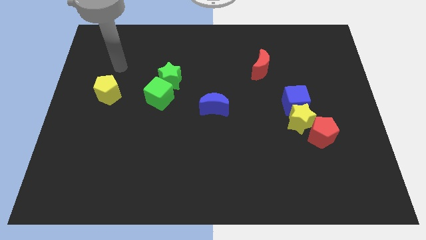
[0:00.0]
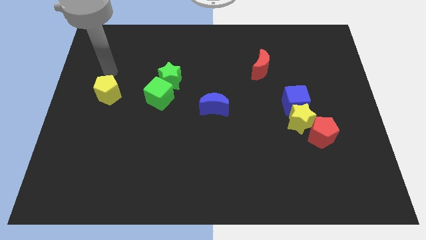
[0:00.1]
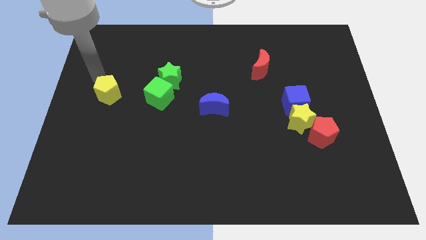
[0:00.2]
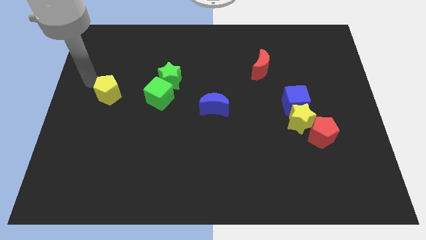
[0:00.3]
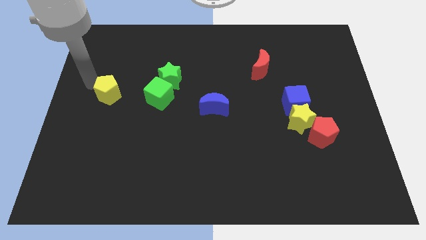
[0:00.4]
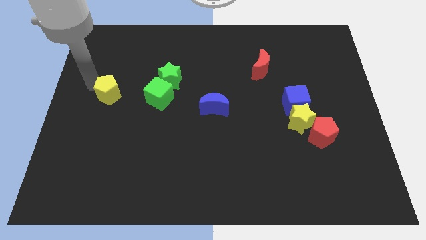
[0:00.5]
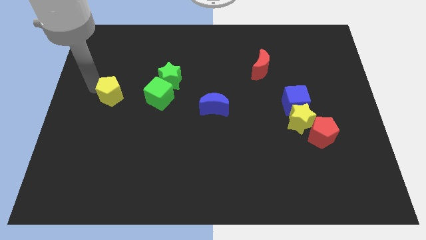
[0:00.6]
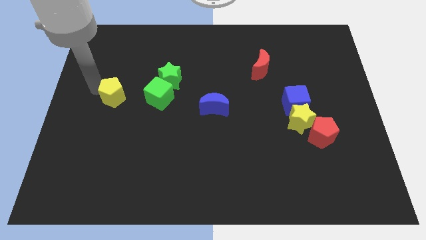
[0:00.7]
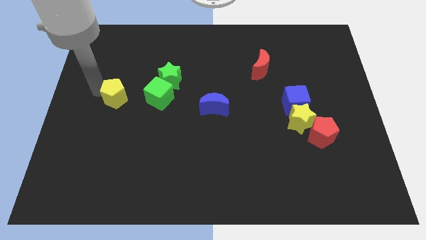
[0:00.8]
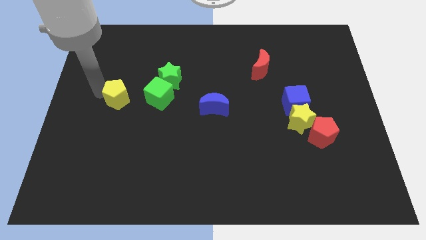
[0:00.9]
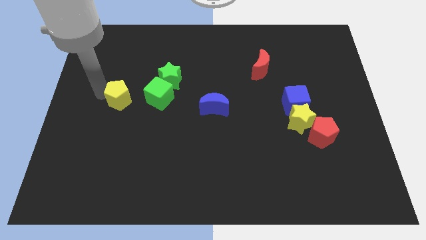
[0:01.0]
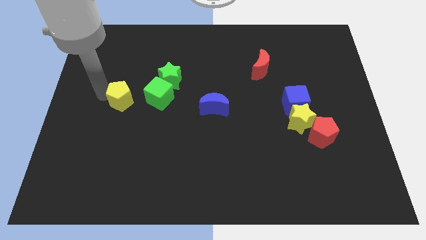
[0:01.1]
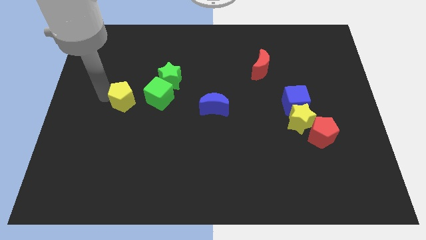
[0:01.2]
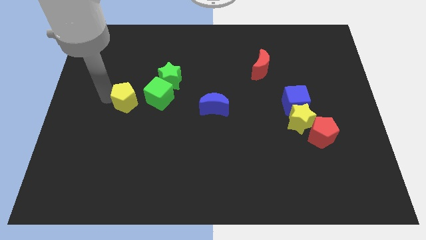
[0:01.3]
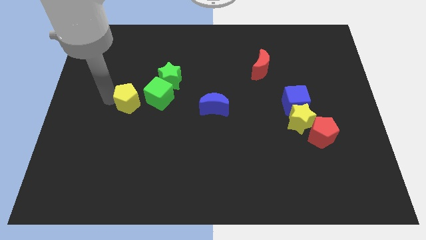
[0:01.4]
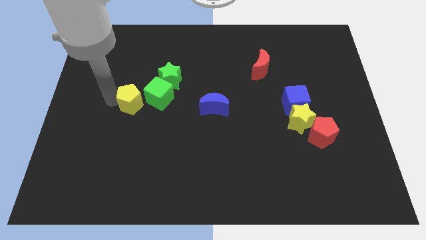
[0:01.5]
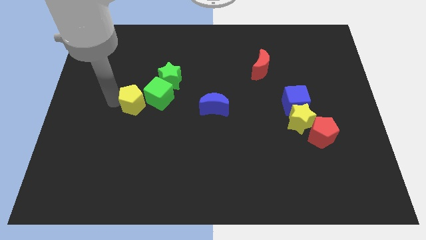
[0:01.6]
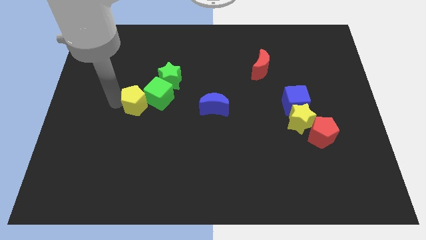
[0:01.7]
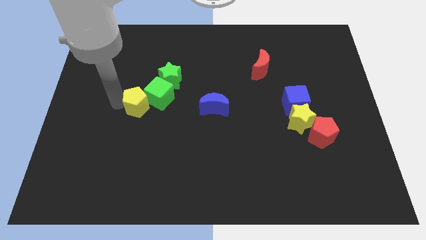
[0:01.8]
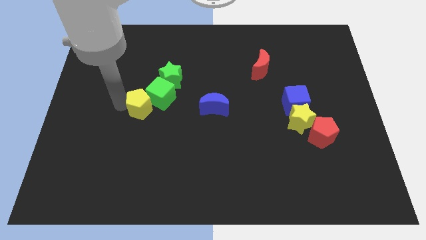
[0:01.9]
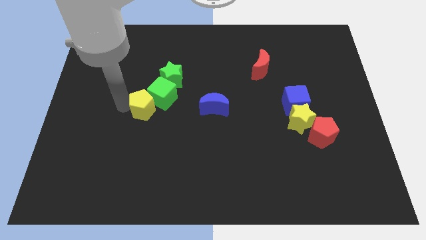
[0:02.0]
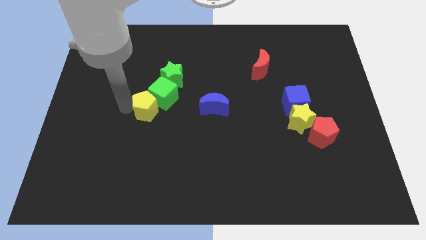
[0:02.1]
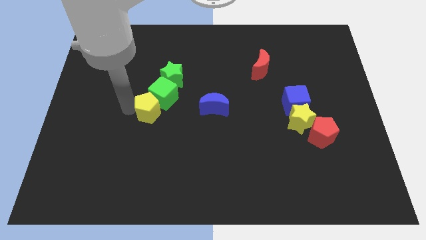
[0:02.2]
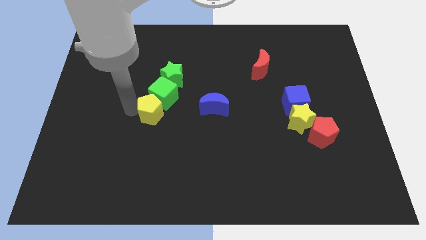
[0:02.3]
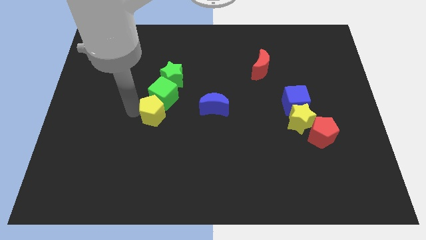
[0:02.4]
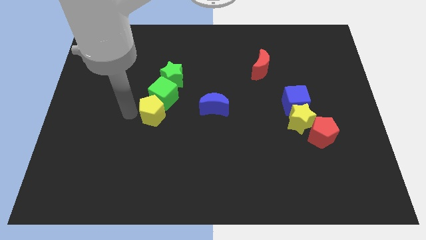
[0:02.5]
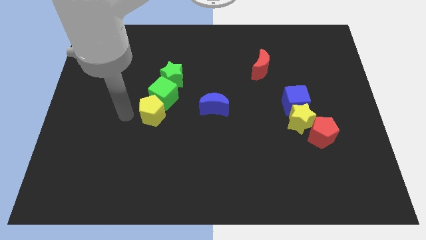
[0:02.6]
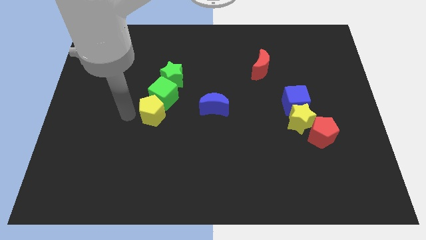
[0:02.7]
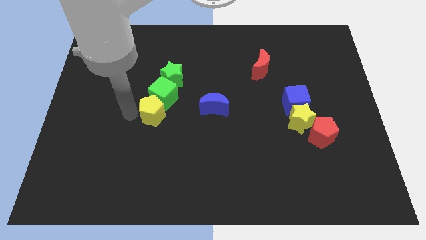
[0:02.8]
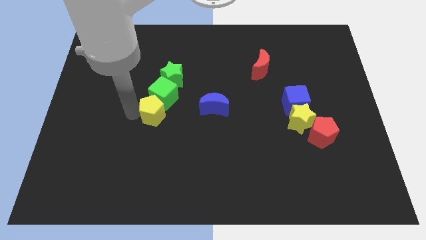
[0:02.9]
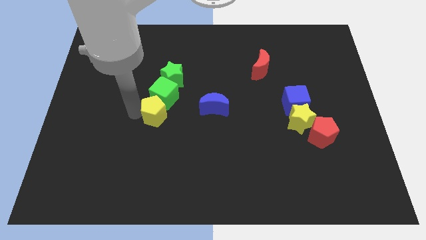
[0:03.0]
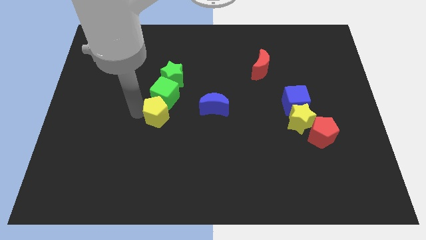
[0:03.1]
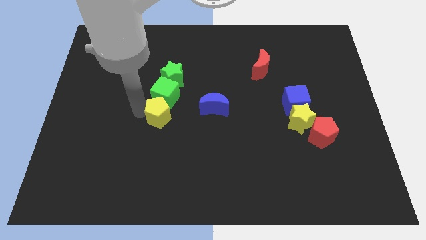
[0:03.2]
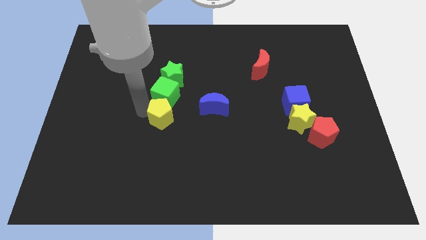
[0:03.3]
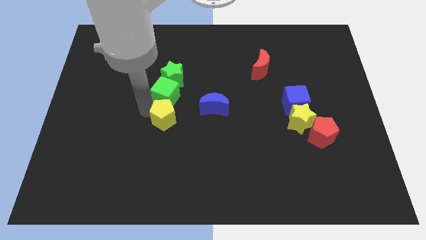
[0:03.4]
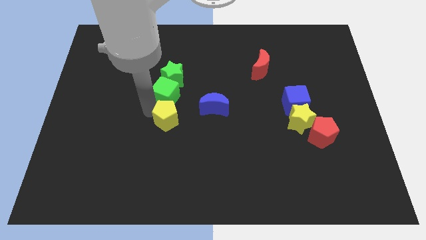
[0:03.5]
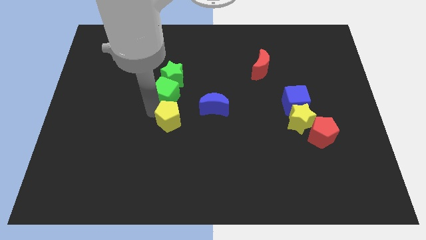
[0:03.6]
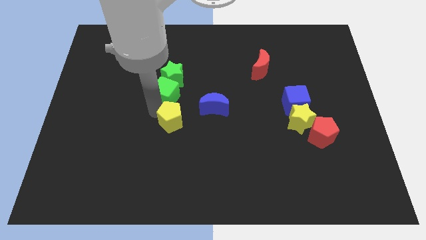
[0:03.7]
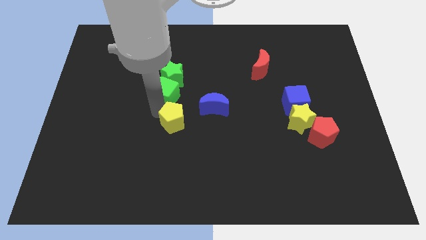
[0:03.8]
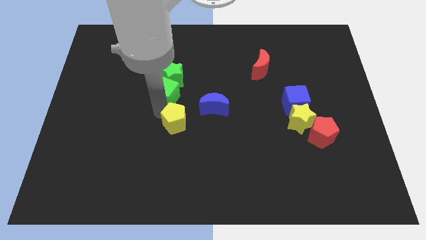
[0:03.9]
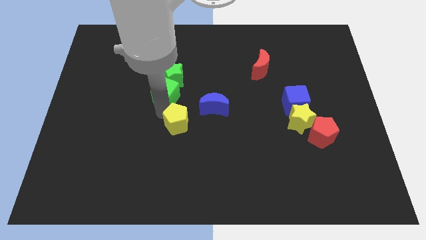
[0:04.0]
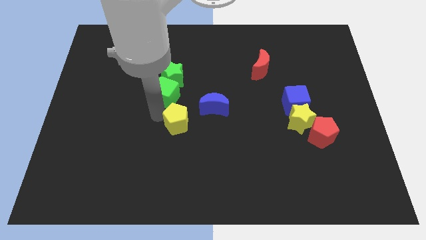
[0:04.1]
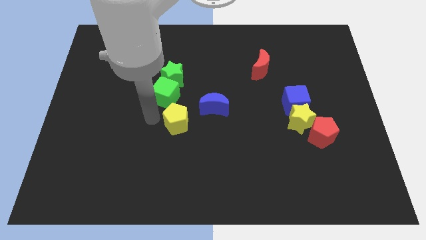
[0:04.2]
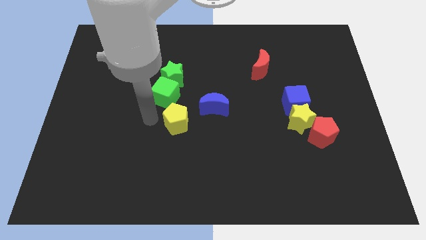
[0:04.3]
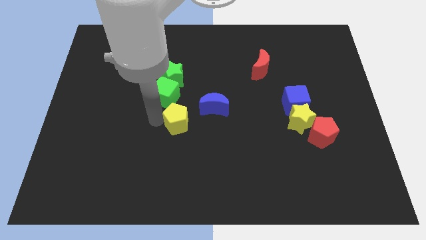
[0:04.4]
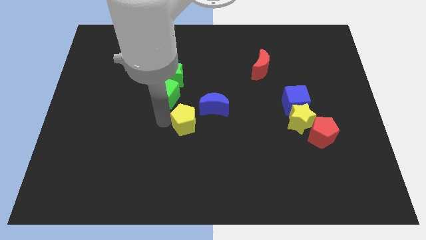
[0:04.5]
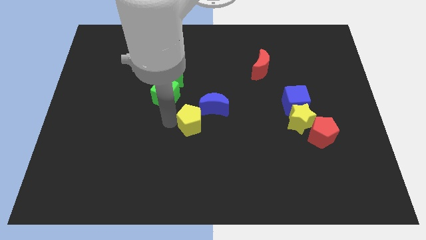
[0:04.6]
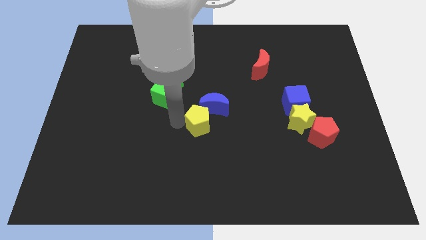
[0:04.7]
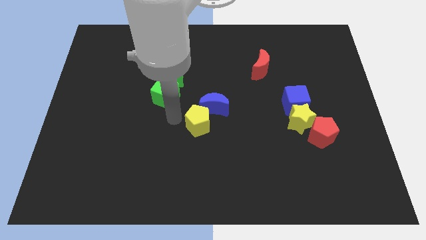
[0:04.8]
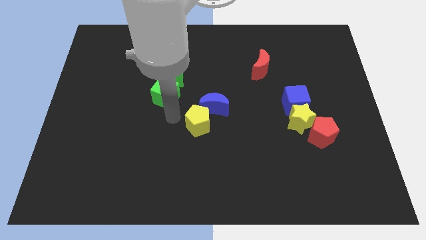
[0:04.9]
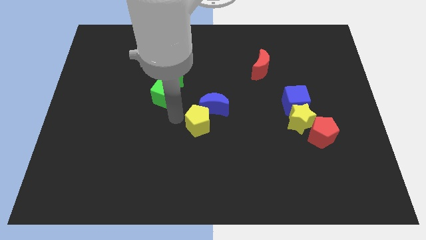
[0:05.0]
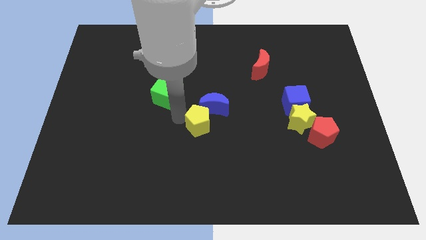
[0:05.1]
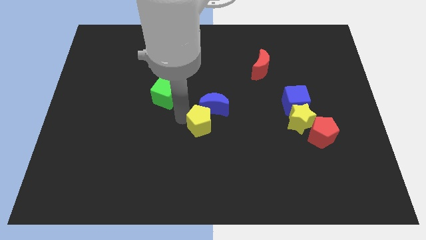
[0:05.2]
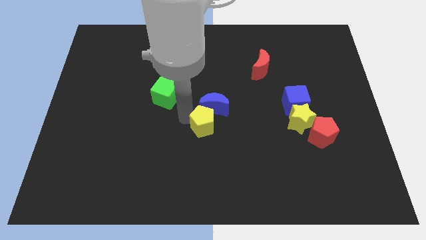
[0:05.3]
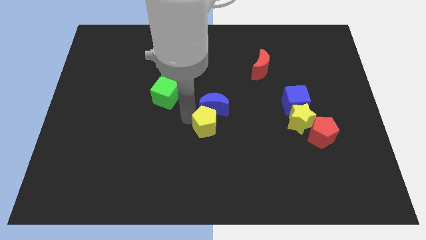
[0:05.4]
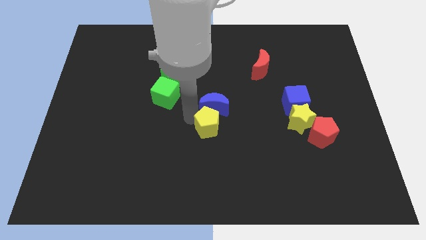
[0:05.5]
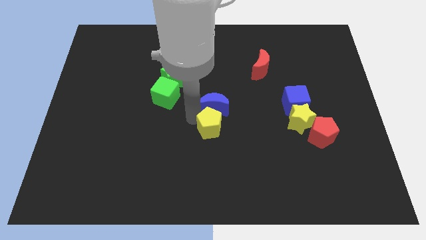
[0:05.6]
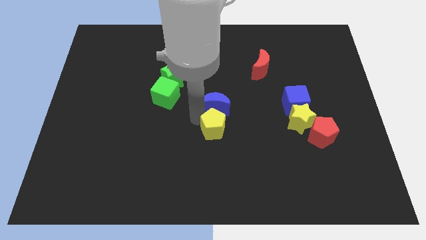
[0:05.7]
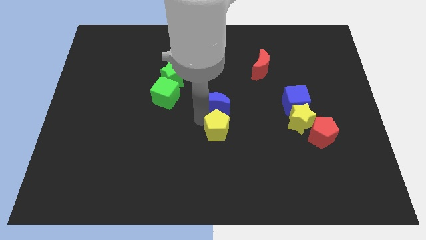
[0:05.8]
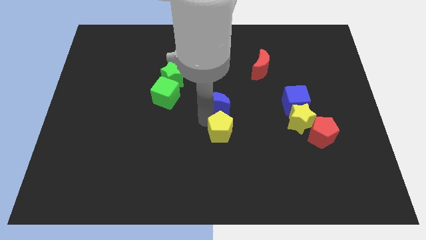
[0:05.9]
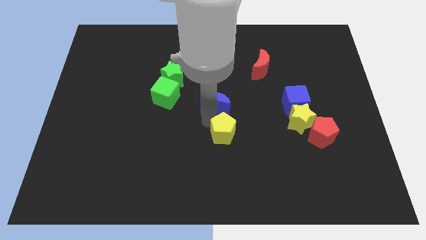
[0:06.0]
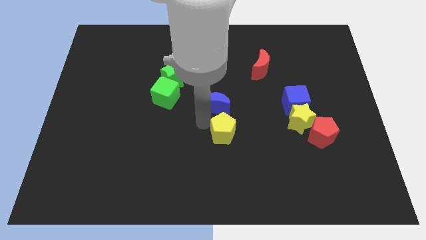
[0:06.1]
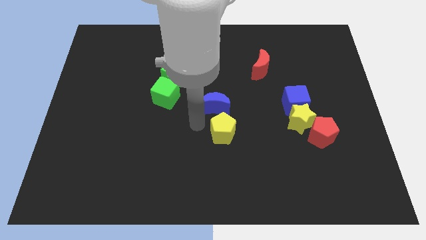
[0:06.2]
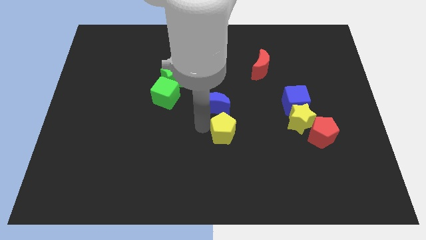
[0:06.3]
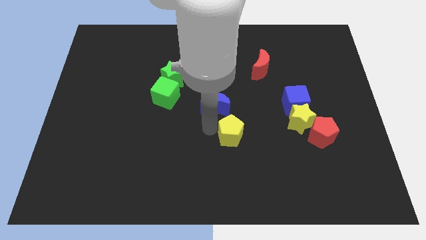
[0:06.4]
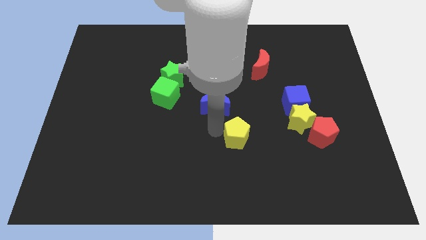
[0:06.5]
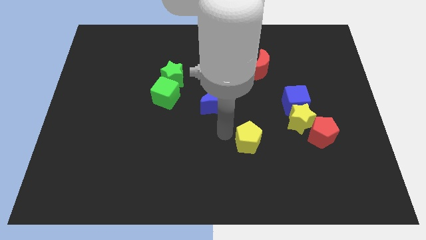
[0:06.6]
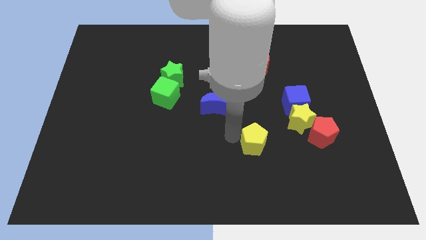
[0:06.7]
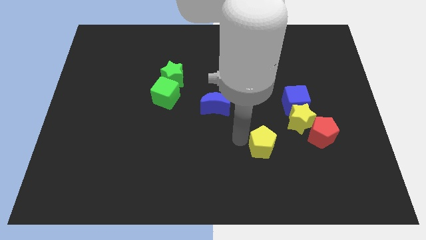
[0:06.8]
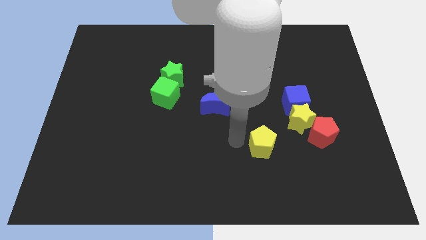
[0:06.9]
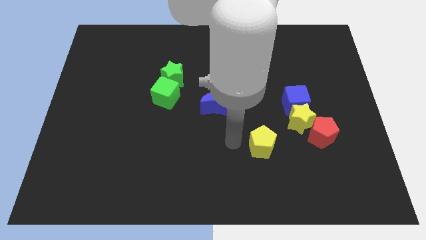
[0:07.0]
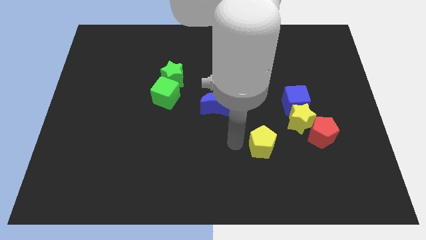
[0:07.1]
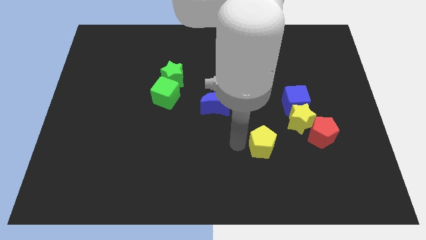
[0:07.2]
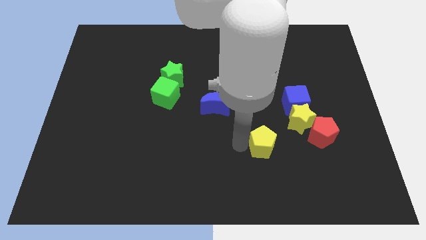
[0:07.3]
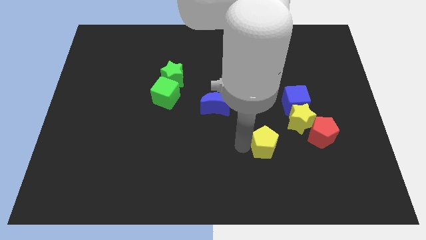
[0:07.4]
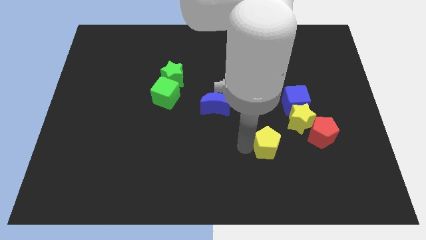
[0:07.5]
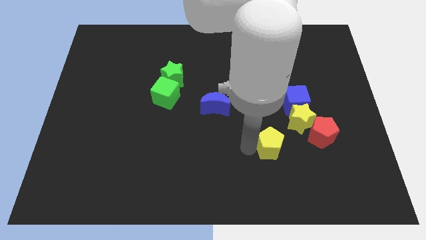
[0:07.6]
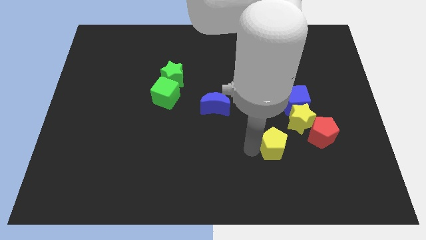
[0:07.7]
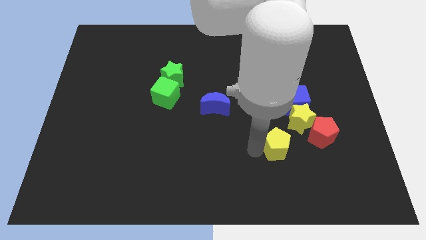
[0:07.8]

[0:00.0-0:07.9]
put the yellow pentagon to the bottom left side of the red pentagon
